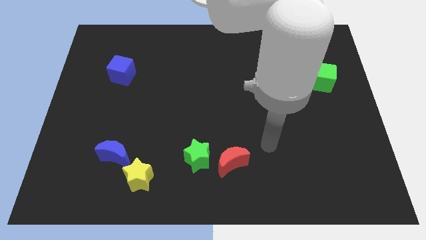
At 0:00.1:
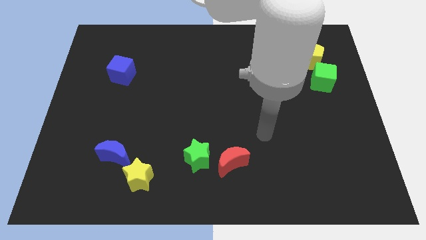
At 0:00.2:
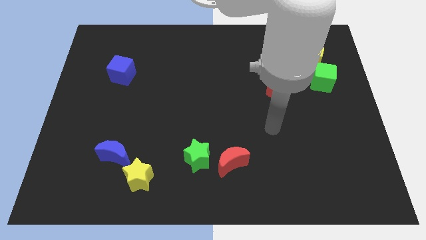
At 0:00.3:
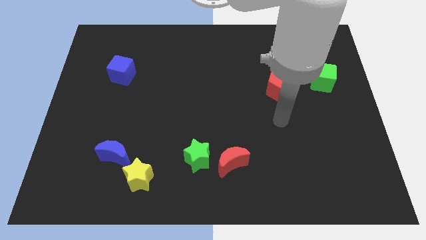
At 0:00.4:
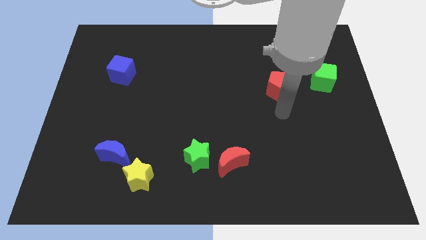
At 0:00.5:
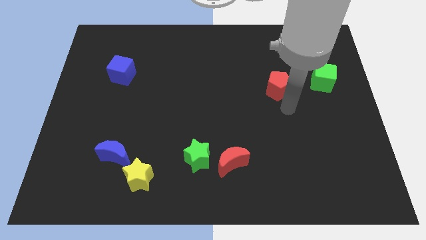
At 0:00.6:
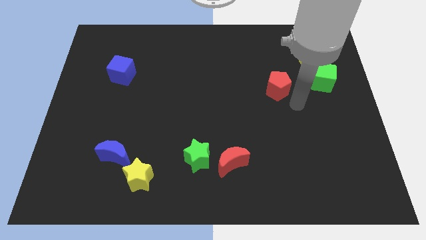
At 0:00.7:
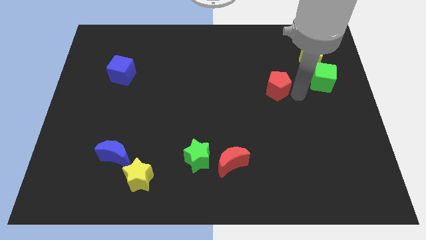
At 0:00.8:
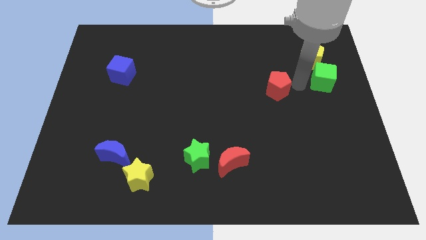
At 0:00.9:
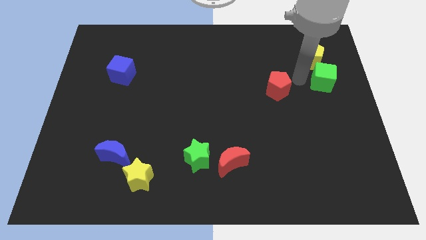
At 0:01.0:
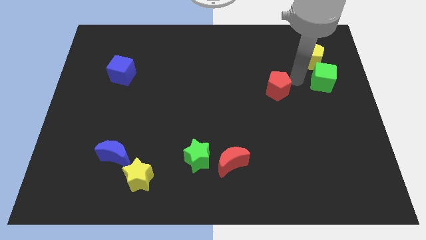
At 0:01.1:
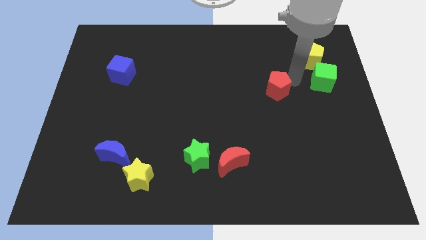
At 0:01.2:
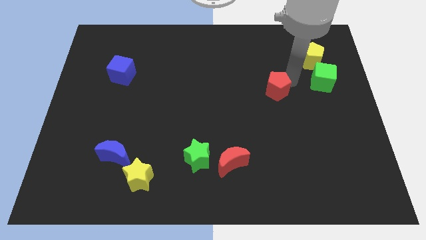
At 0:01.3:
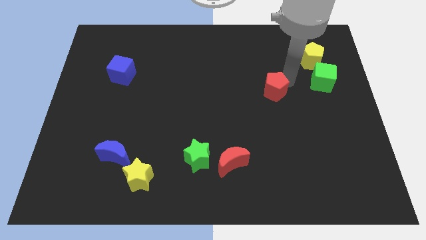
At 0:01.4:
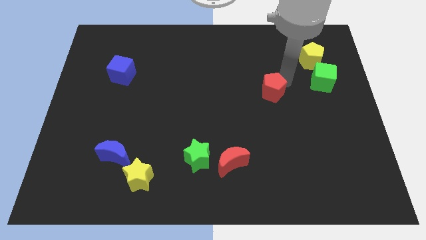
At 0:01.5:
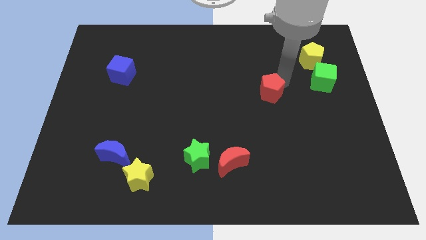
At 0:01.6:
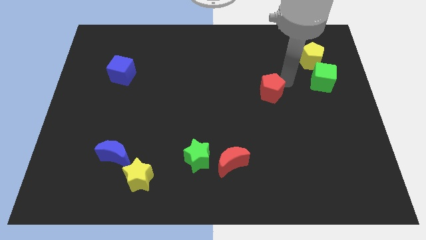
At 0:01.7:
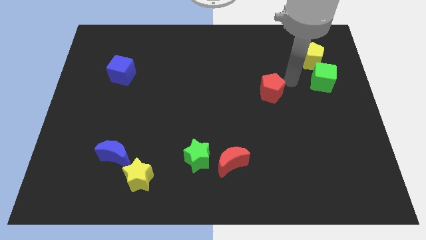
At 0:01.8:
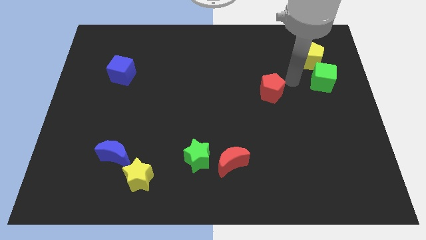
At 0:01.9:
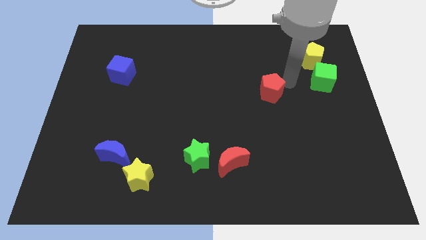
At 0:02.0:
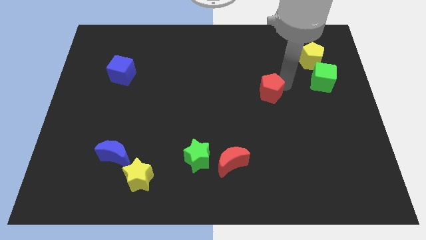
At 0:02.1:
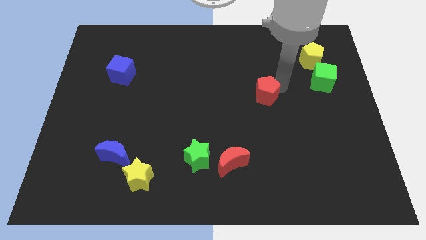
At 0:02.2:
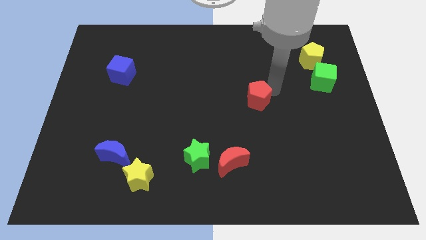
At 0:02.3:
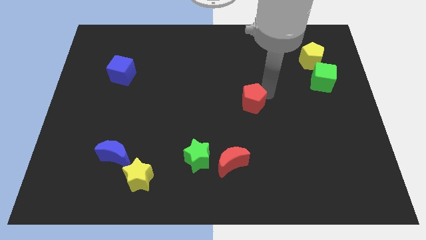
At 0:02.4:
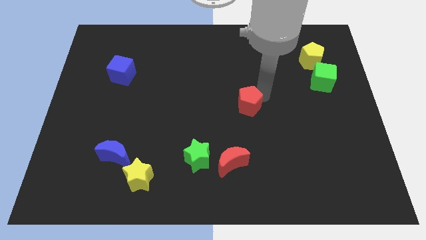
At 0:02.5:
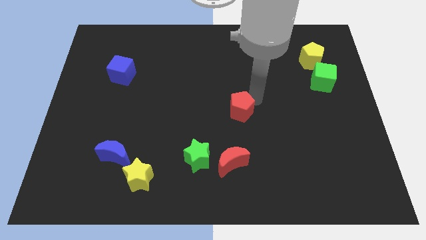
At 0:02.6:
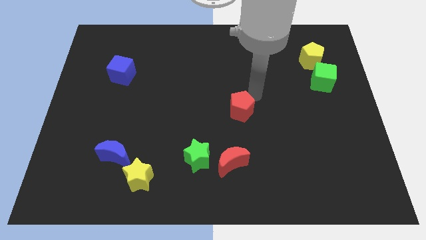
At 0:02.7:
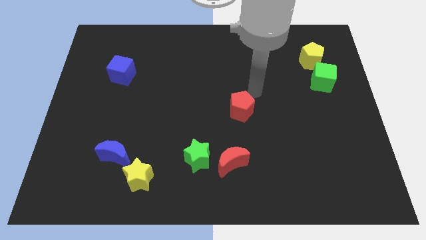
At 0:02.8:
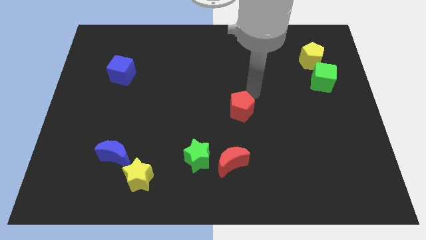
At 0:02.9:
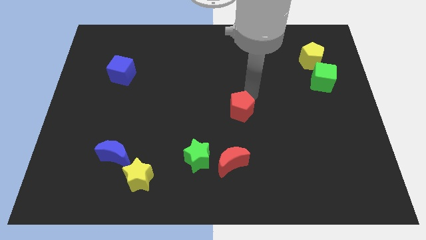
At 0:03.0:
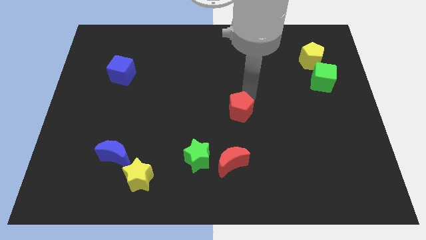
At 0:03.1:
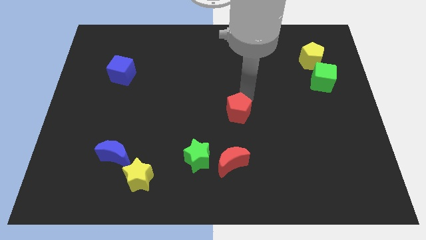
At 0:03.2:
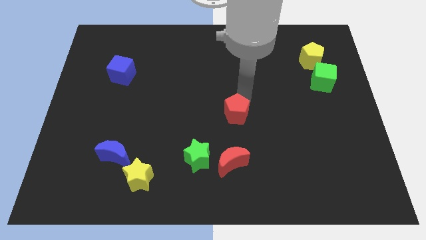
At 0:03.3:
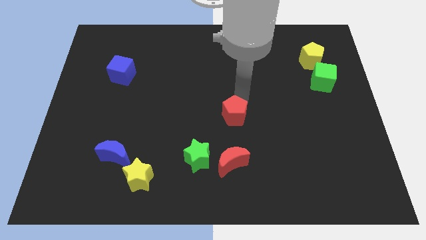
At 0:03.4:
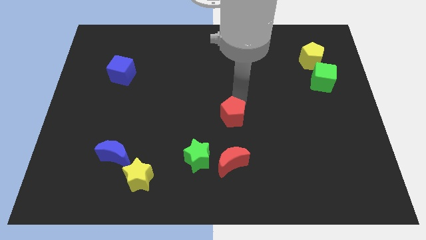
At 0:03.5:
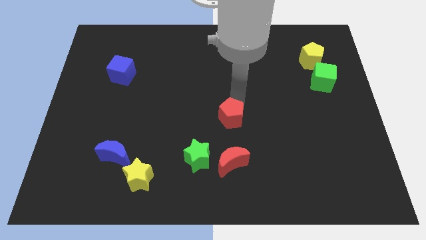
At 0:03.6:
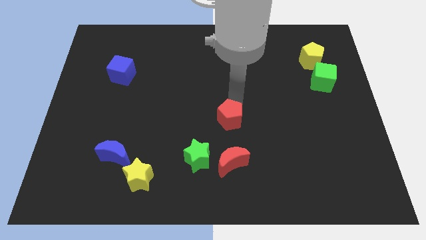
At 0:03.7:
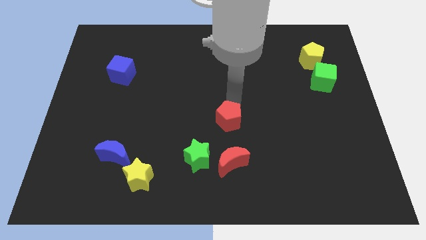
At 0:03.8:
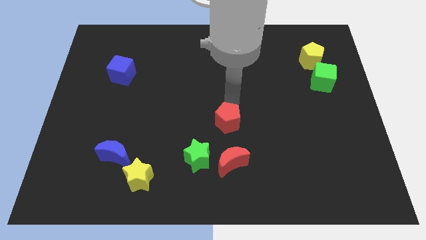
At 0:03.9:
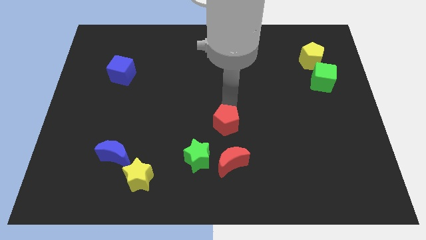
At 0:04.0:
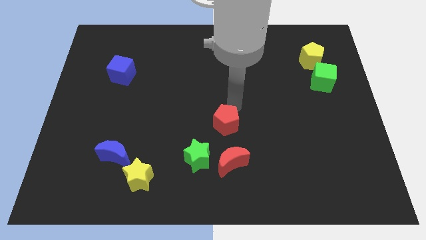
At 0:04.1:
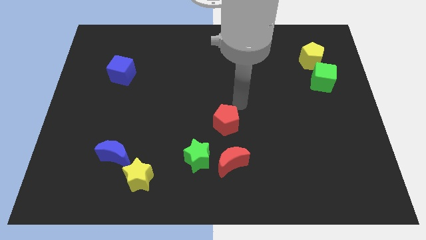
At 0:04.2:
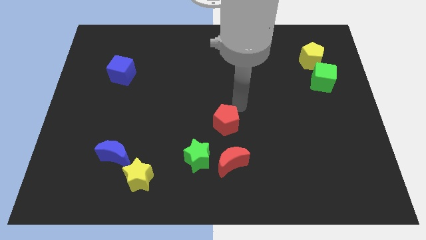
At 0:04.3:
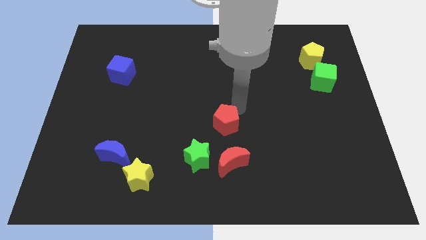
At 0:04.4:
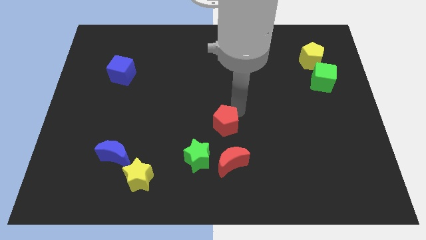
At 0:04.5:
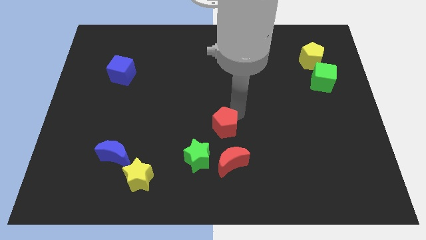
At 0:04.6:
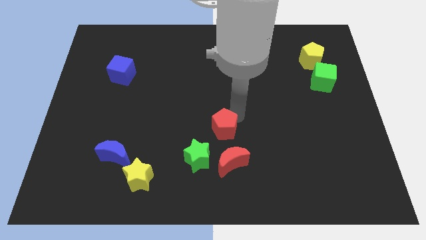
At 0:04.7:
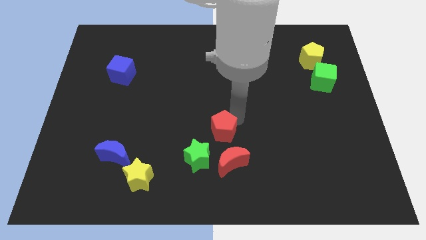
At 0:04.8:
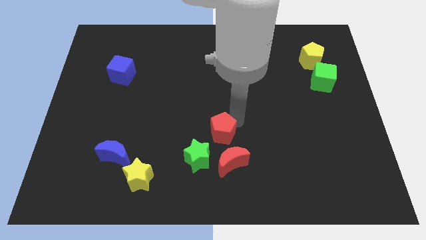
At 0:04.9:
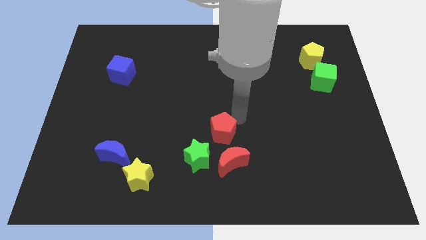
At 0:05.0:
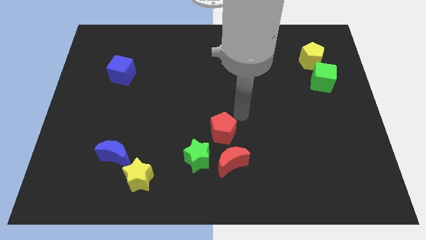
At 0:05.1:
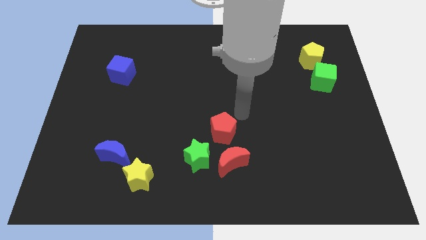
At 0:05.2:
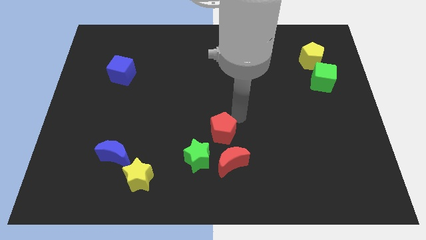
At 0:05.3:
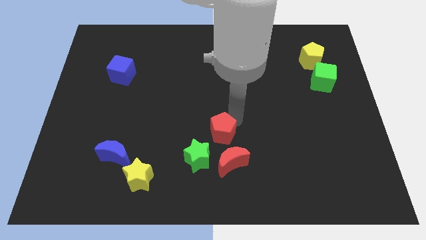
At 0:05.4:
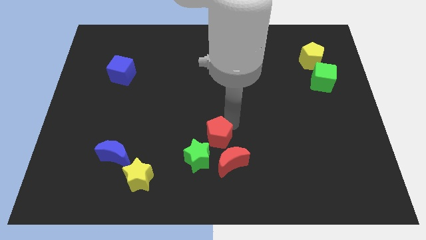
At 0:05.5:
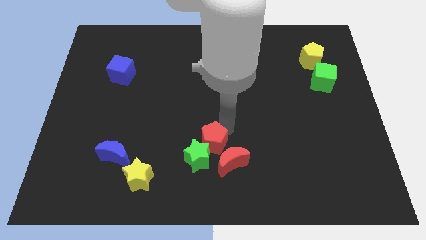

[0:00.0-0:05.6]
put the red pentagon close to the green star

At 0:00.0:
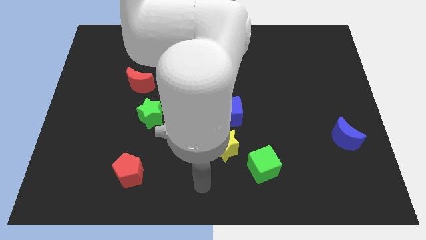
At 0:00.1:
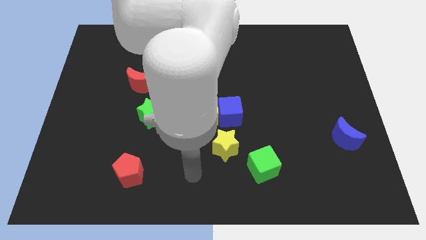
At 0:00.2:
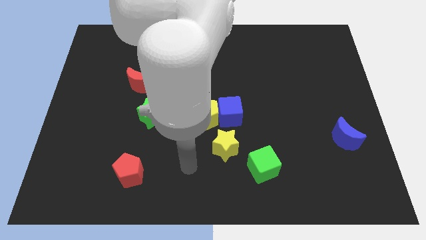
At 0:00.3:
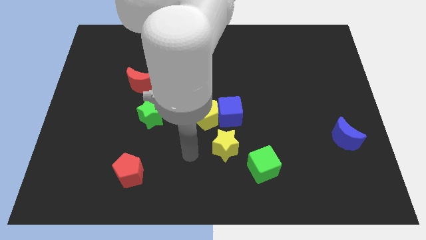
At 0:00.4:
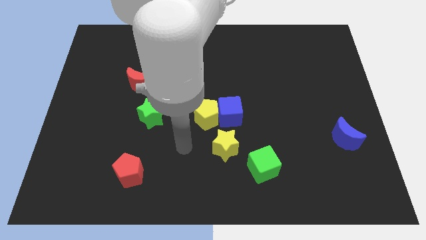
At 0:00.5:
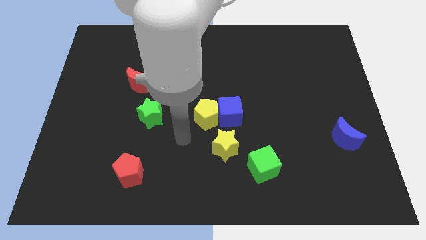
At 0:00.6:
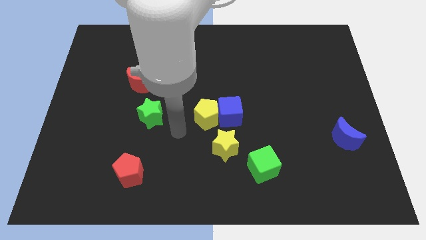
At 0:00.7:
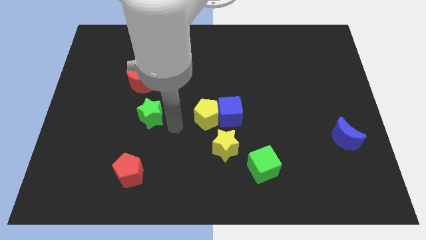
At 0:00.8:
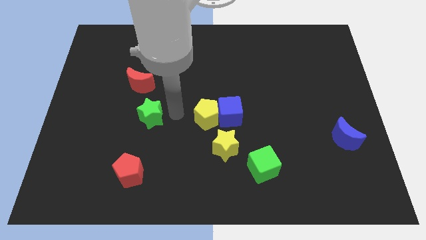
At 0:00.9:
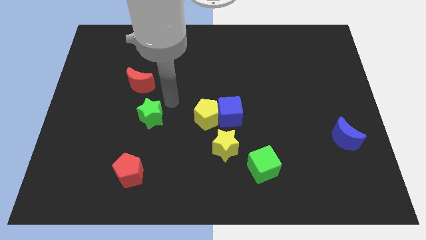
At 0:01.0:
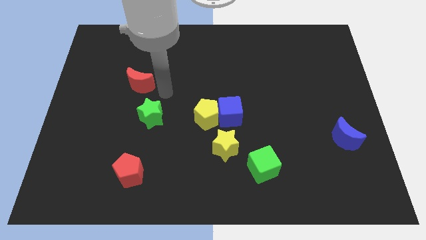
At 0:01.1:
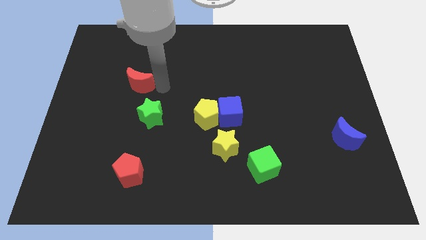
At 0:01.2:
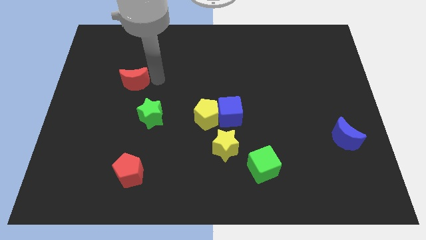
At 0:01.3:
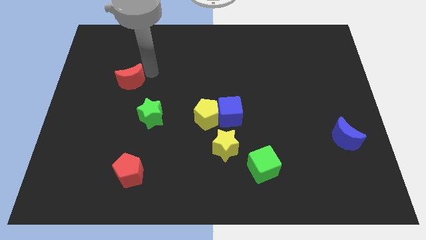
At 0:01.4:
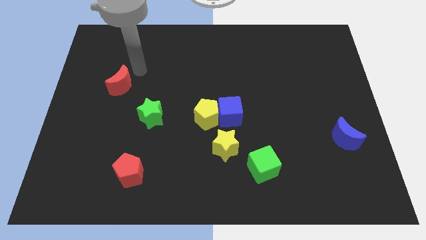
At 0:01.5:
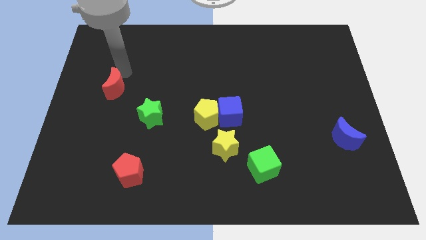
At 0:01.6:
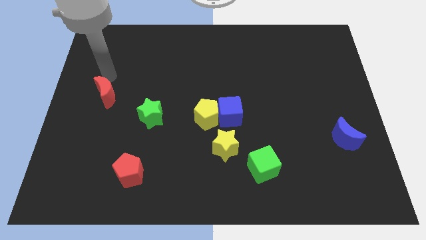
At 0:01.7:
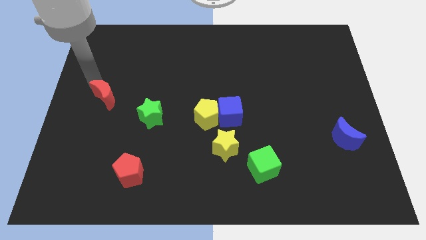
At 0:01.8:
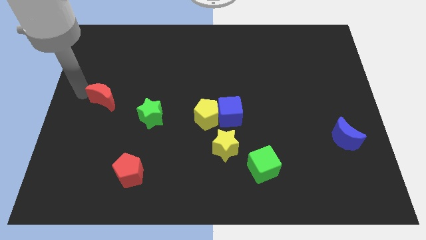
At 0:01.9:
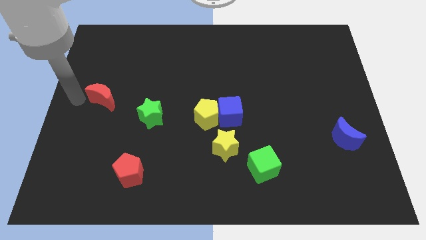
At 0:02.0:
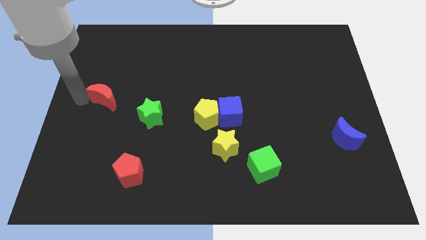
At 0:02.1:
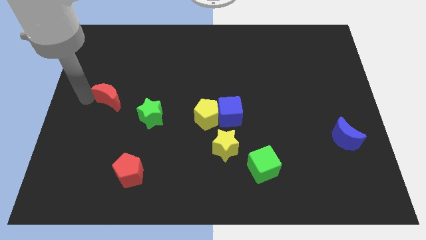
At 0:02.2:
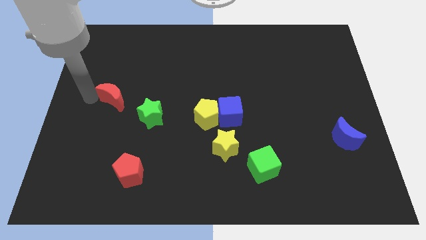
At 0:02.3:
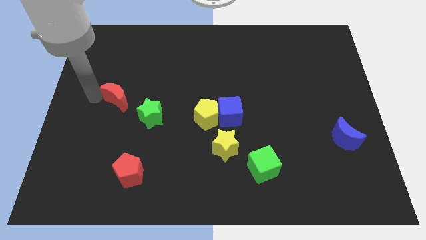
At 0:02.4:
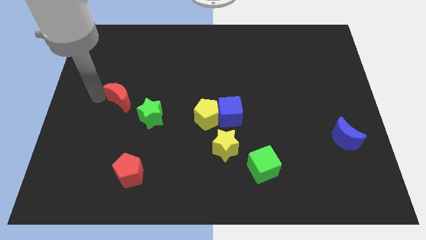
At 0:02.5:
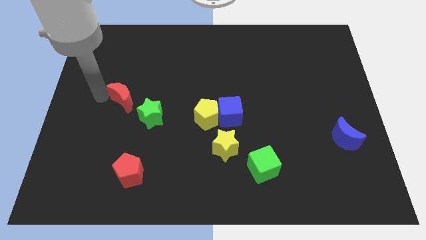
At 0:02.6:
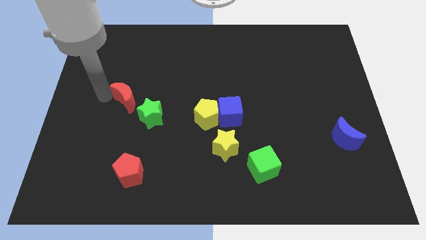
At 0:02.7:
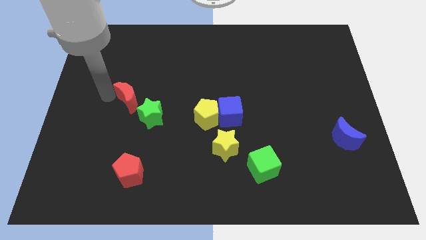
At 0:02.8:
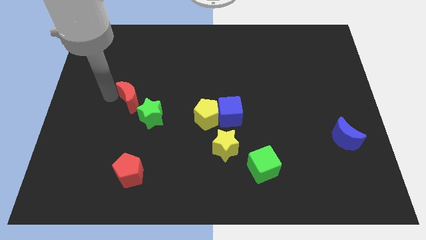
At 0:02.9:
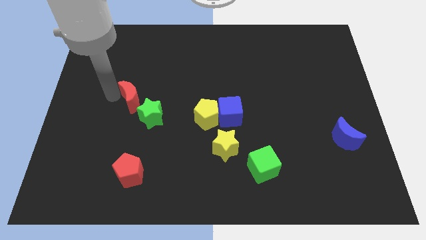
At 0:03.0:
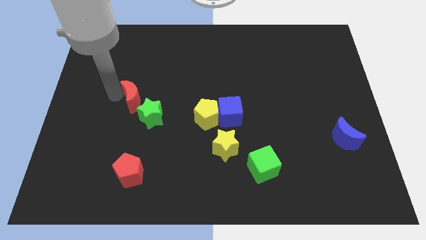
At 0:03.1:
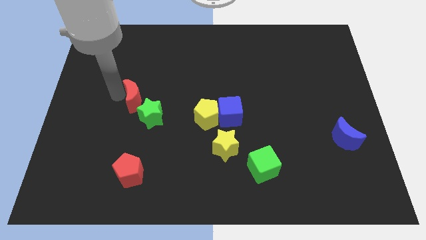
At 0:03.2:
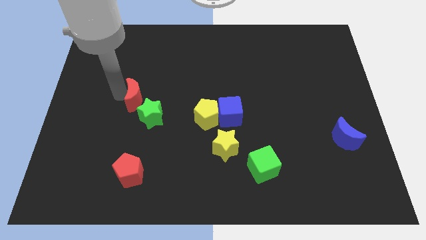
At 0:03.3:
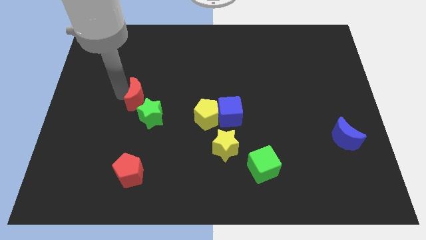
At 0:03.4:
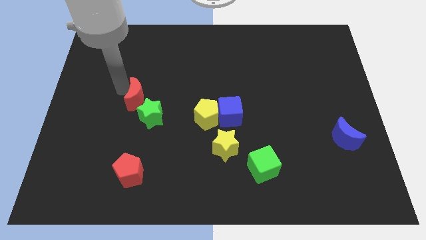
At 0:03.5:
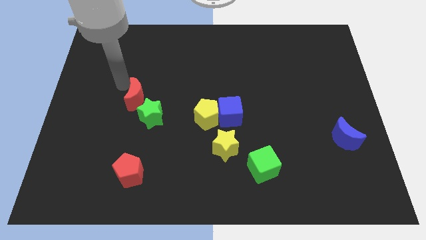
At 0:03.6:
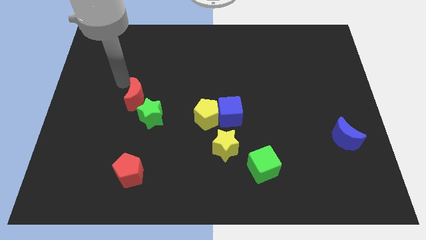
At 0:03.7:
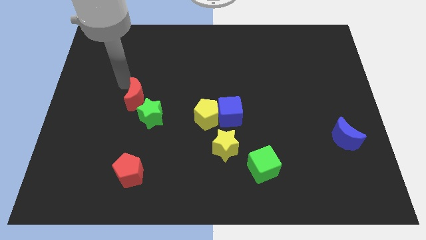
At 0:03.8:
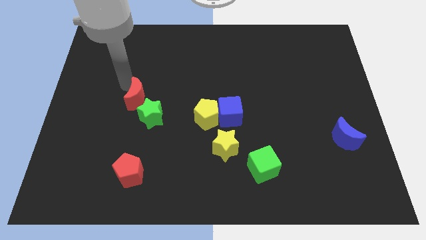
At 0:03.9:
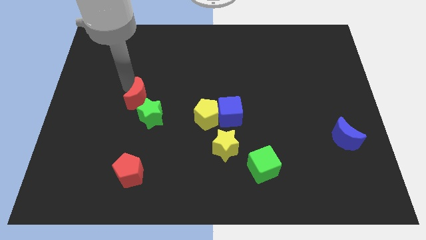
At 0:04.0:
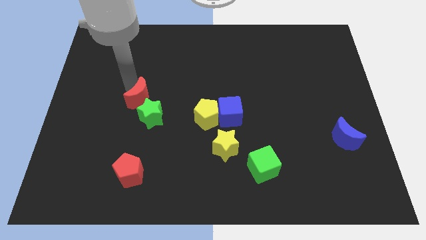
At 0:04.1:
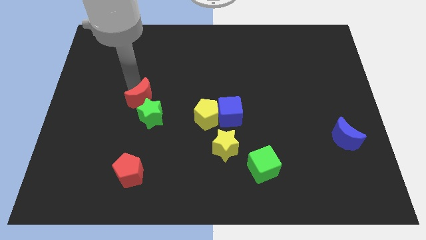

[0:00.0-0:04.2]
move the red moon towards the green star
